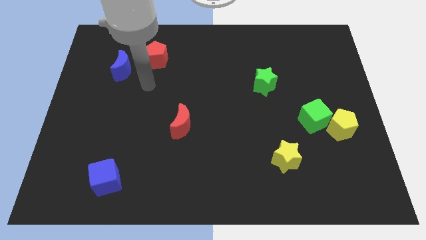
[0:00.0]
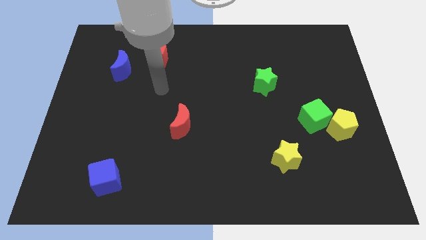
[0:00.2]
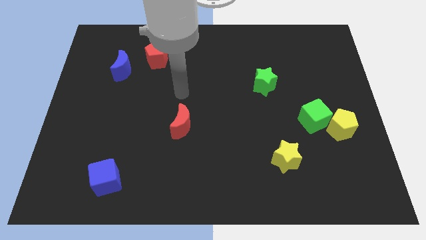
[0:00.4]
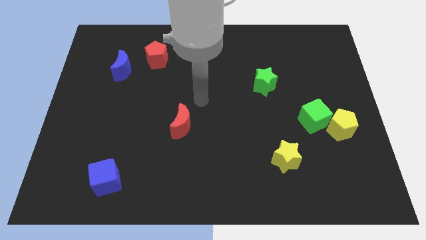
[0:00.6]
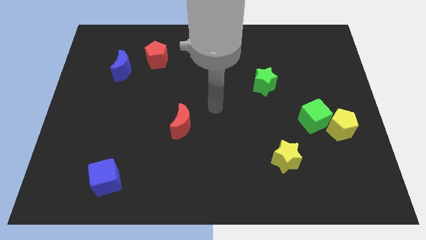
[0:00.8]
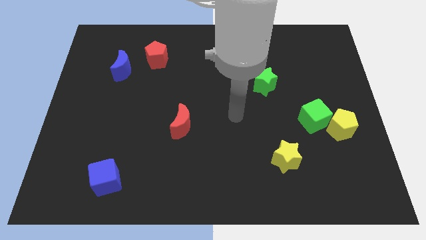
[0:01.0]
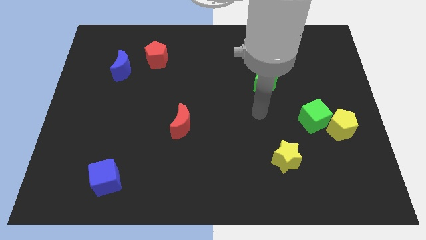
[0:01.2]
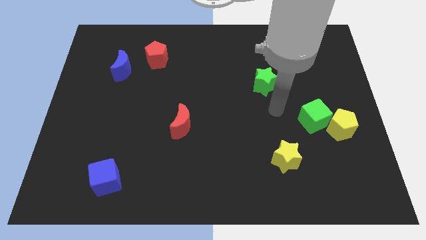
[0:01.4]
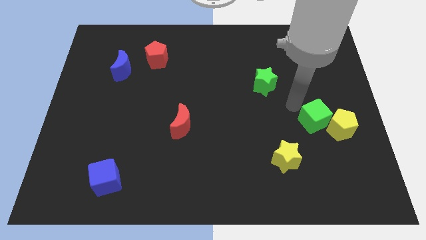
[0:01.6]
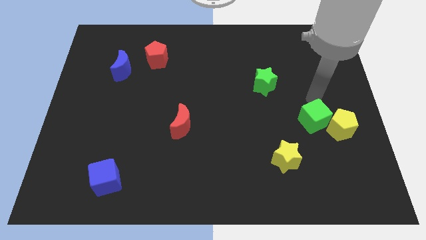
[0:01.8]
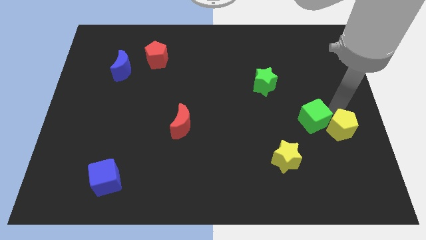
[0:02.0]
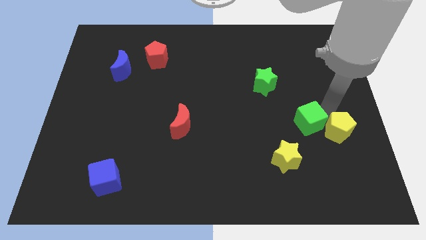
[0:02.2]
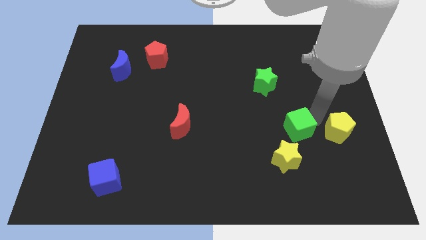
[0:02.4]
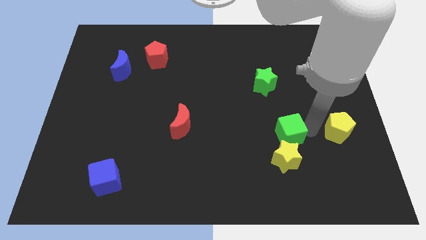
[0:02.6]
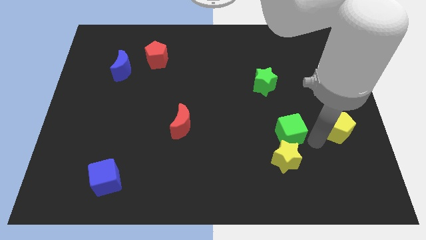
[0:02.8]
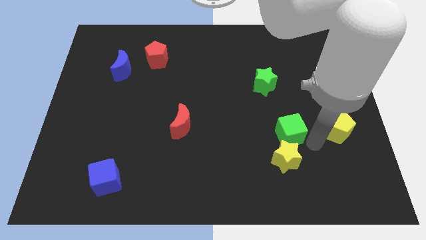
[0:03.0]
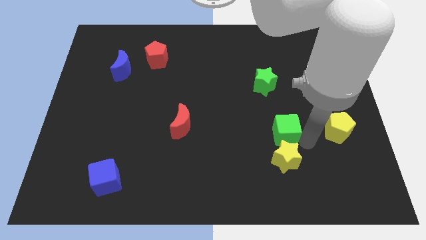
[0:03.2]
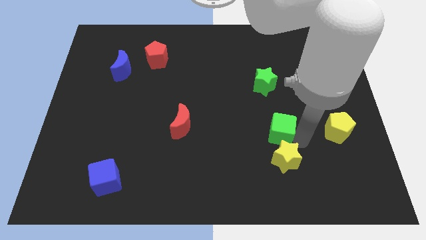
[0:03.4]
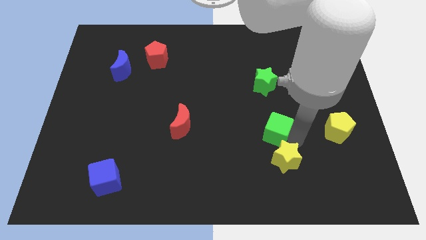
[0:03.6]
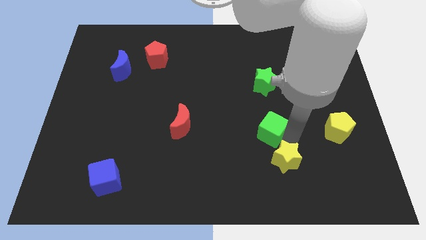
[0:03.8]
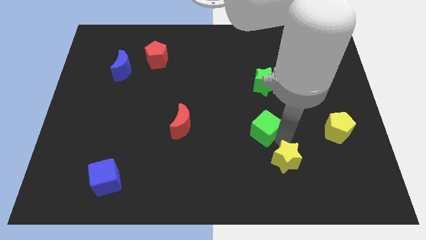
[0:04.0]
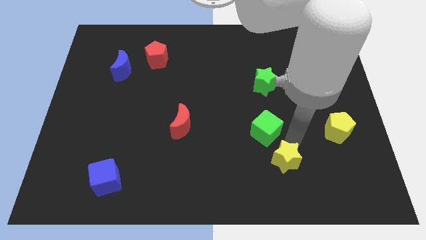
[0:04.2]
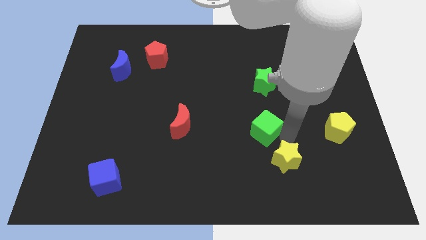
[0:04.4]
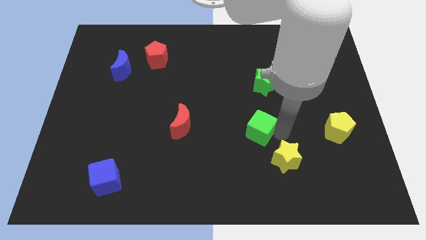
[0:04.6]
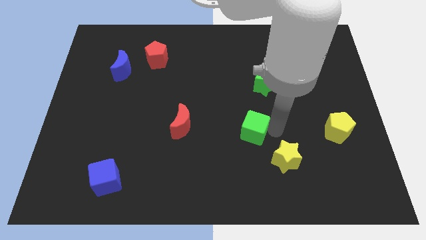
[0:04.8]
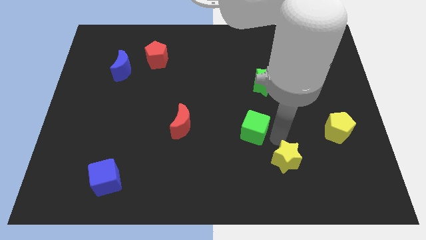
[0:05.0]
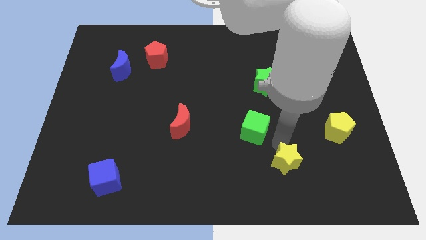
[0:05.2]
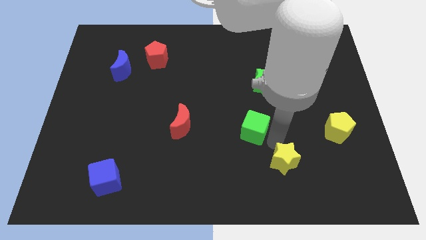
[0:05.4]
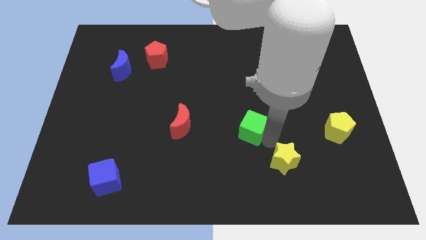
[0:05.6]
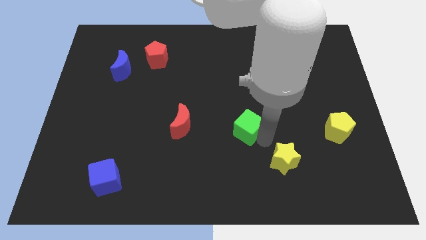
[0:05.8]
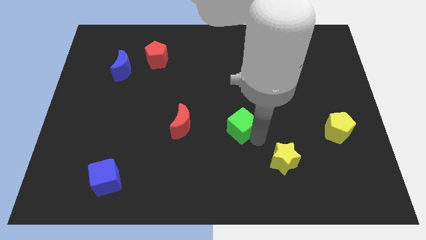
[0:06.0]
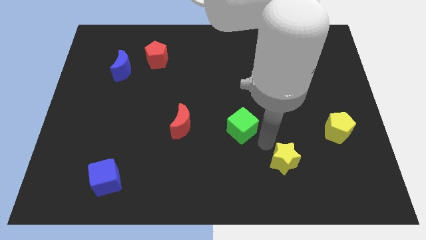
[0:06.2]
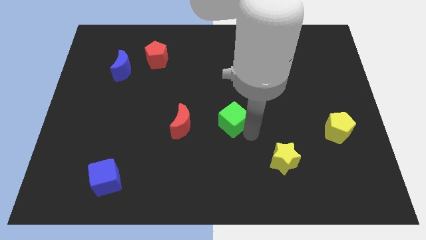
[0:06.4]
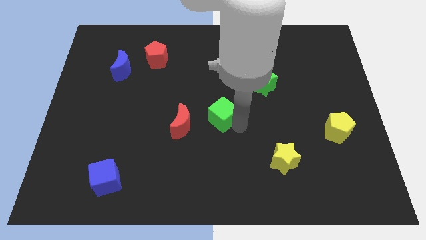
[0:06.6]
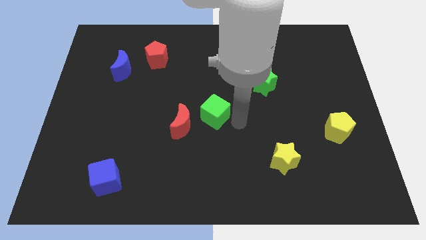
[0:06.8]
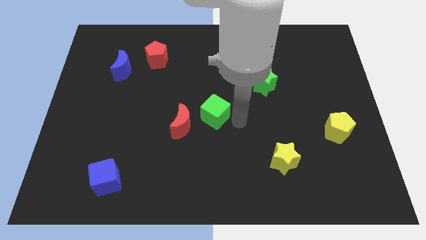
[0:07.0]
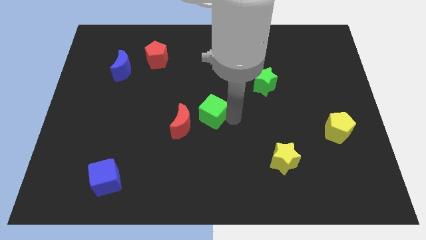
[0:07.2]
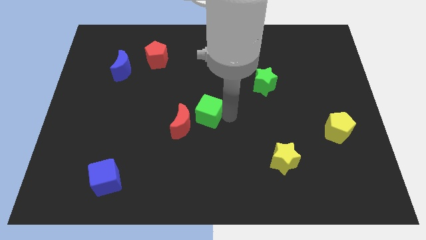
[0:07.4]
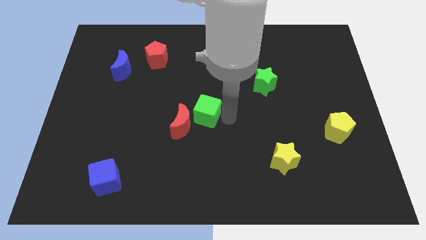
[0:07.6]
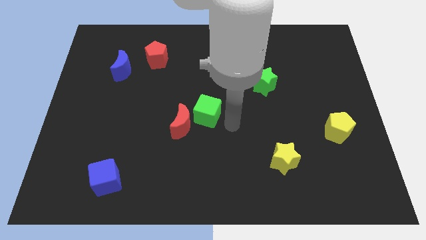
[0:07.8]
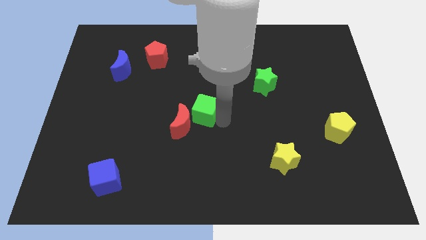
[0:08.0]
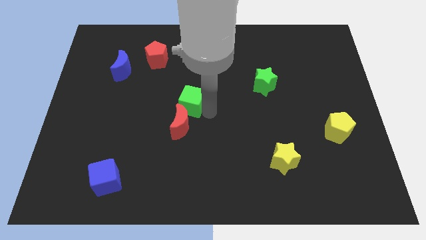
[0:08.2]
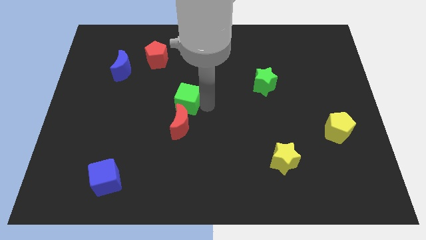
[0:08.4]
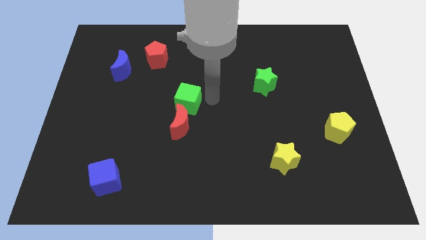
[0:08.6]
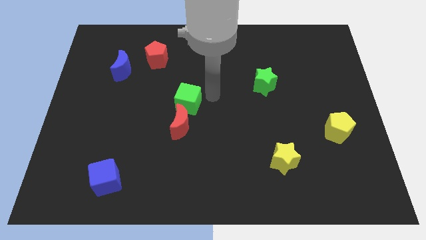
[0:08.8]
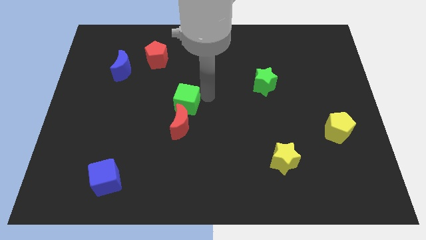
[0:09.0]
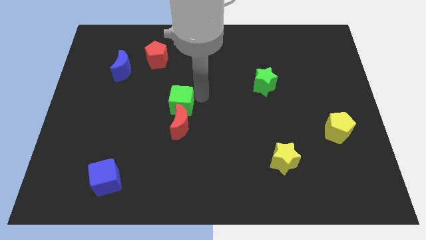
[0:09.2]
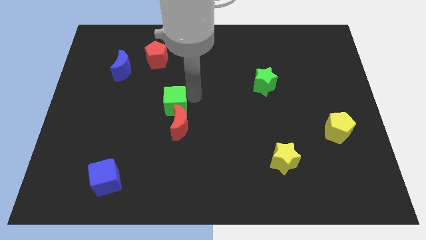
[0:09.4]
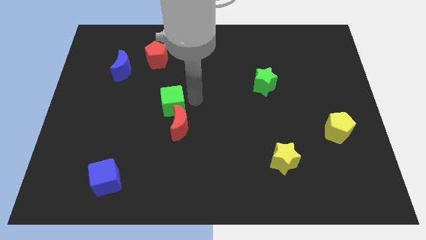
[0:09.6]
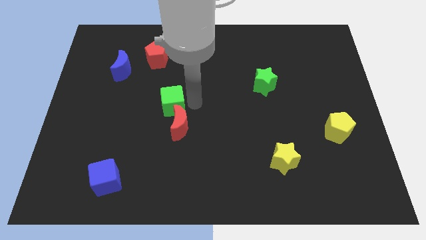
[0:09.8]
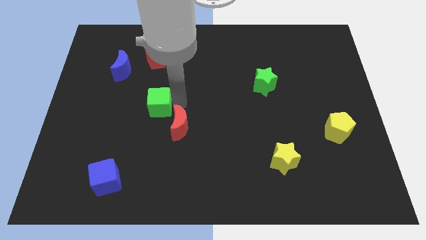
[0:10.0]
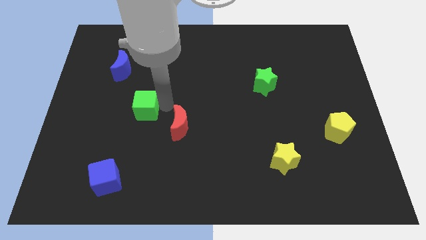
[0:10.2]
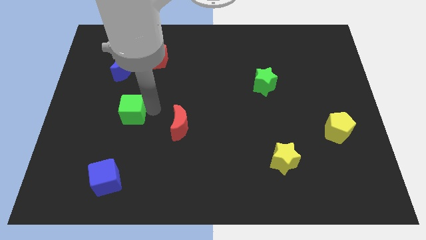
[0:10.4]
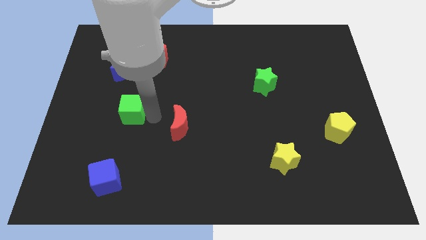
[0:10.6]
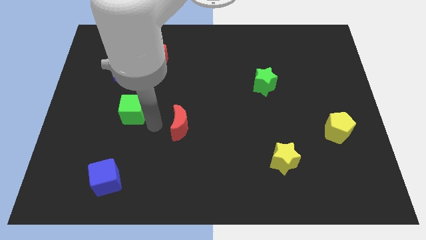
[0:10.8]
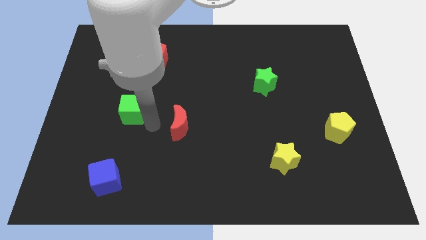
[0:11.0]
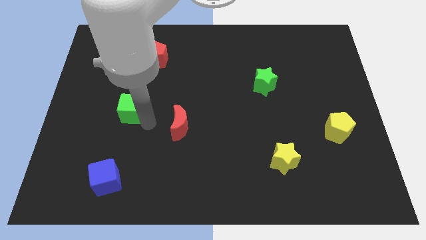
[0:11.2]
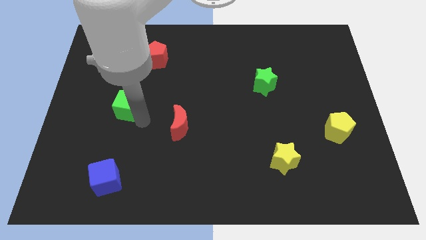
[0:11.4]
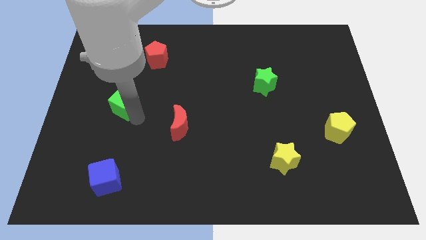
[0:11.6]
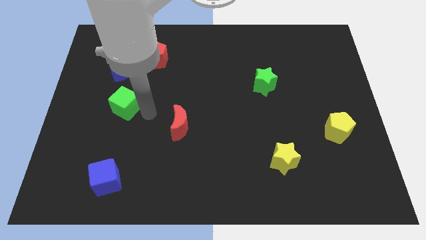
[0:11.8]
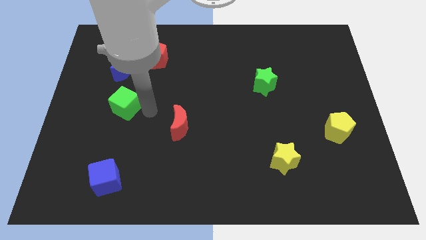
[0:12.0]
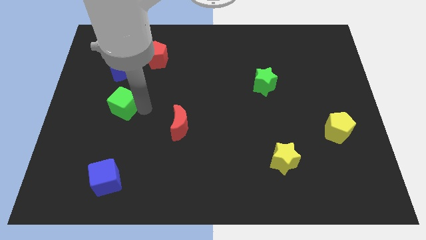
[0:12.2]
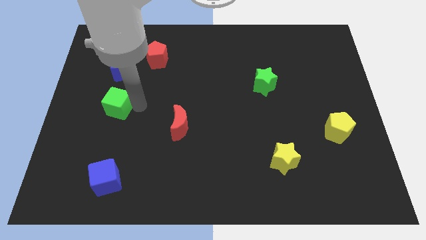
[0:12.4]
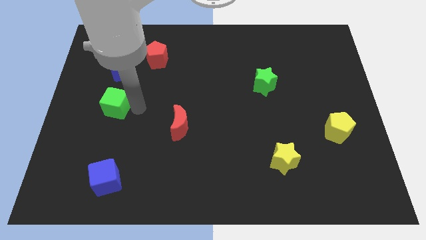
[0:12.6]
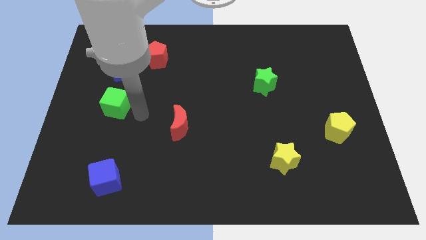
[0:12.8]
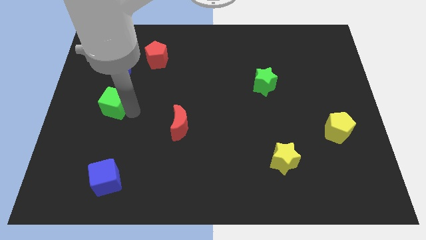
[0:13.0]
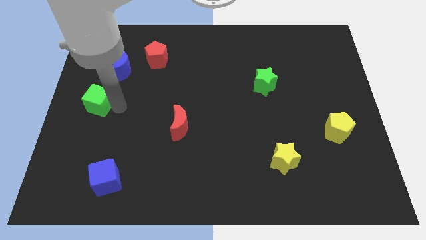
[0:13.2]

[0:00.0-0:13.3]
move the green cube to the center left
